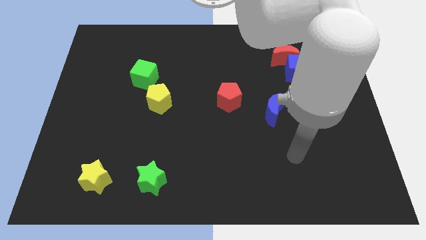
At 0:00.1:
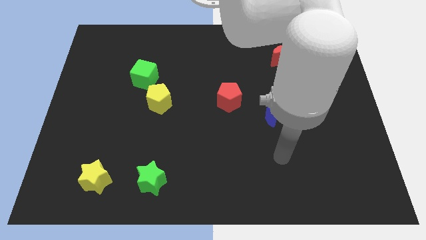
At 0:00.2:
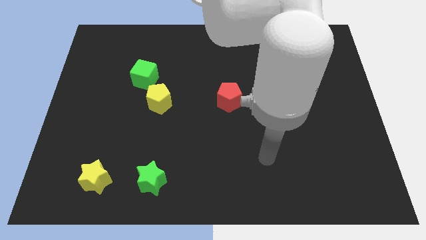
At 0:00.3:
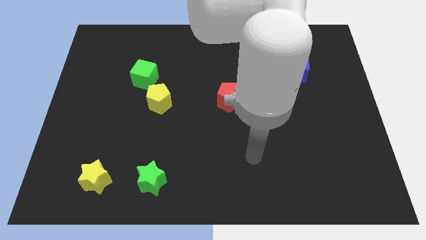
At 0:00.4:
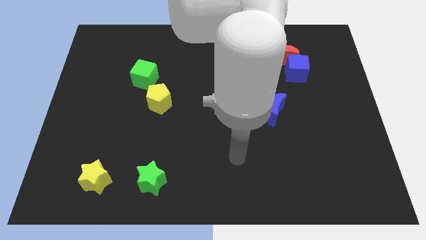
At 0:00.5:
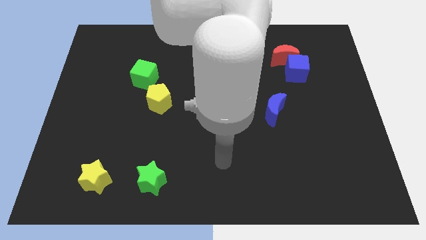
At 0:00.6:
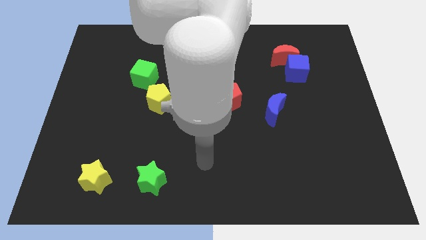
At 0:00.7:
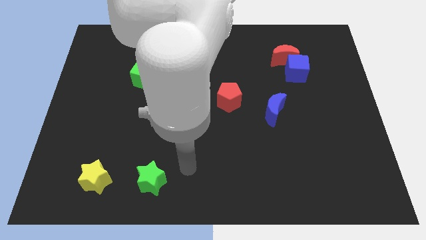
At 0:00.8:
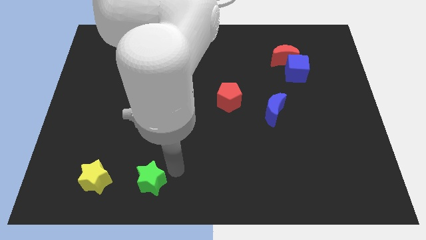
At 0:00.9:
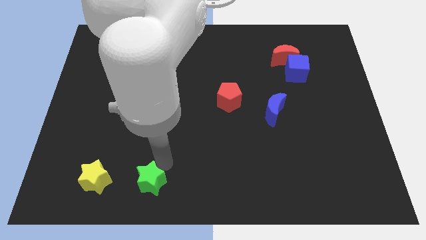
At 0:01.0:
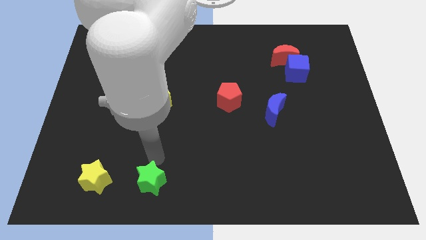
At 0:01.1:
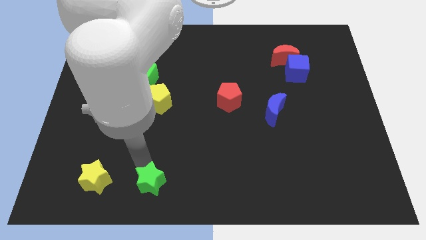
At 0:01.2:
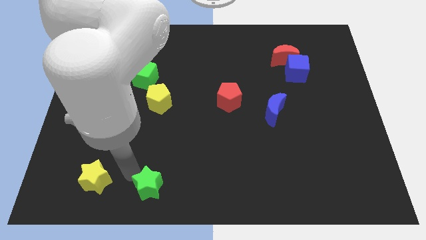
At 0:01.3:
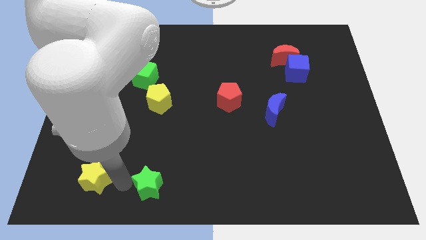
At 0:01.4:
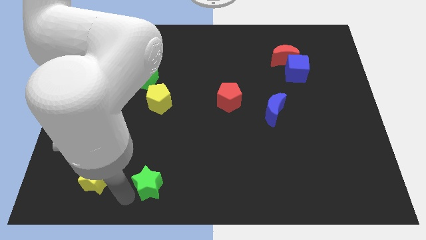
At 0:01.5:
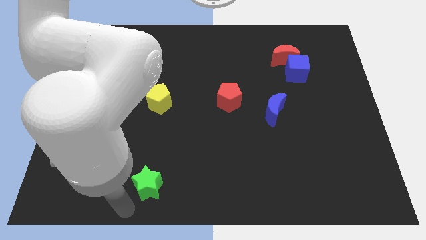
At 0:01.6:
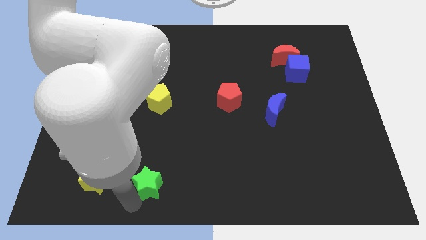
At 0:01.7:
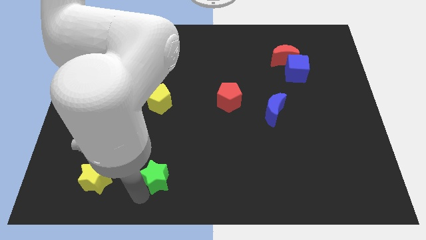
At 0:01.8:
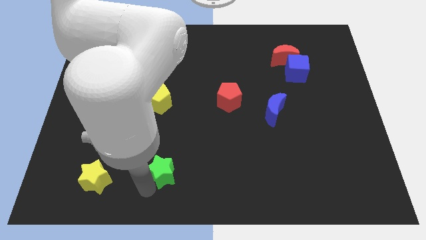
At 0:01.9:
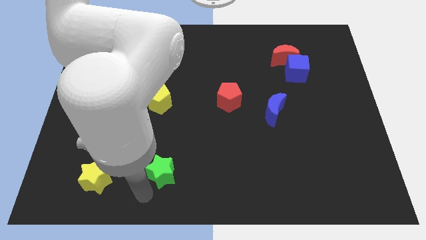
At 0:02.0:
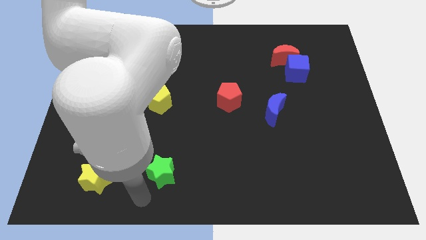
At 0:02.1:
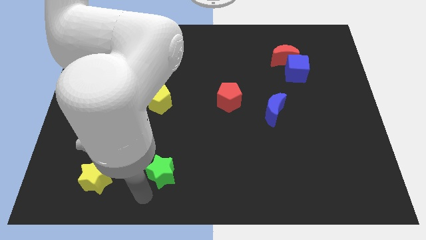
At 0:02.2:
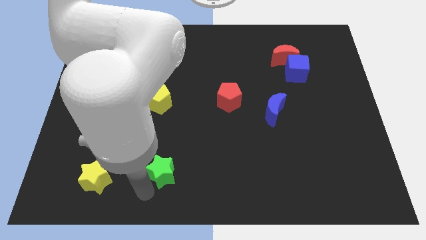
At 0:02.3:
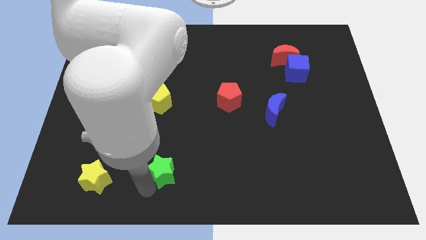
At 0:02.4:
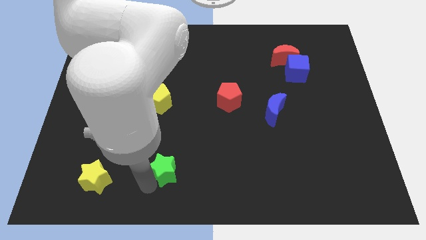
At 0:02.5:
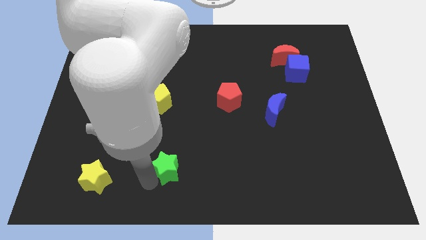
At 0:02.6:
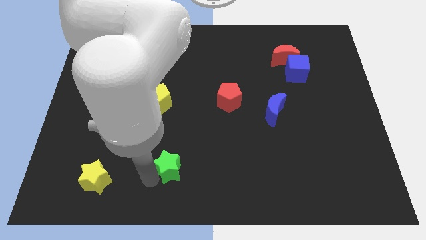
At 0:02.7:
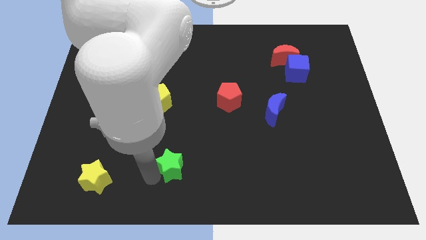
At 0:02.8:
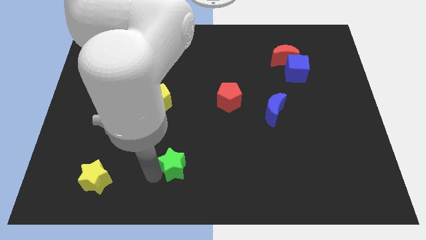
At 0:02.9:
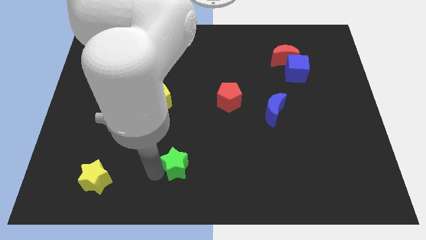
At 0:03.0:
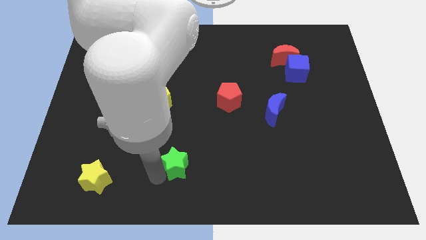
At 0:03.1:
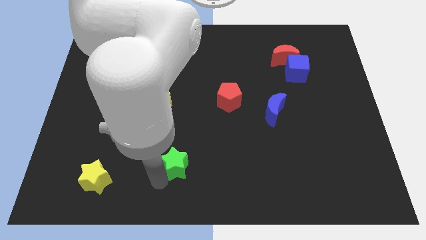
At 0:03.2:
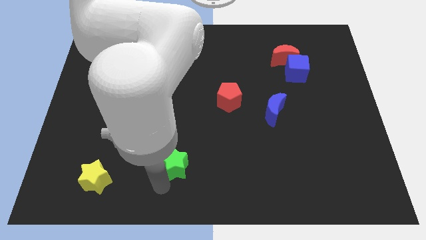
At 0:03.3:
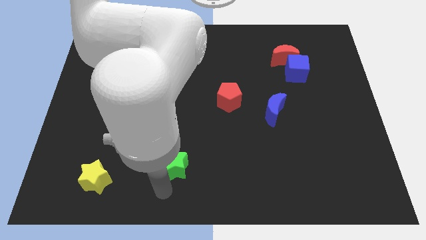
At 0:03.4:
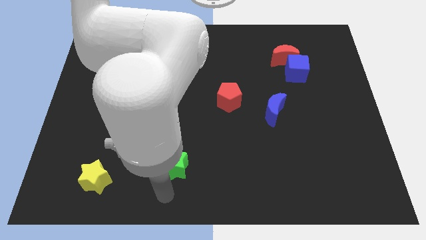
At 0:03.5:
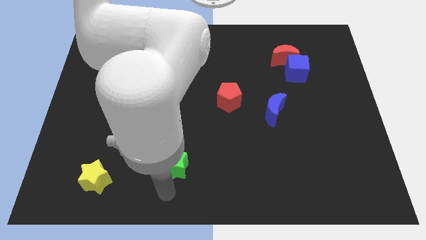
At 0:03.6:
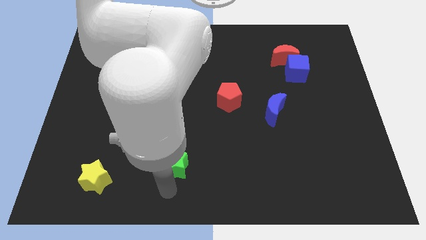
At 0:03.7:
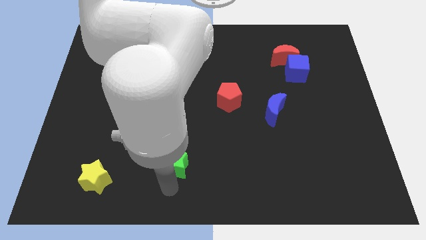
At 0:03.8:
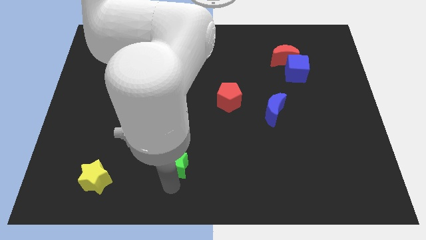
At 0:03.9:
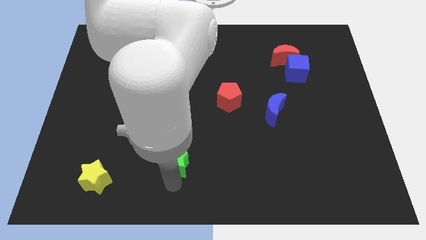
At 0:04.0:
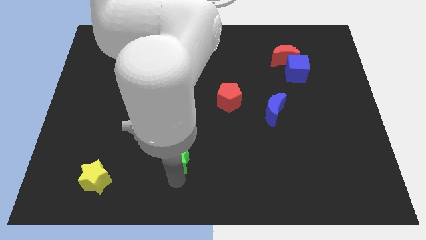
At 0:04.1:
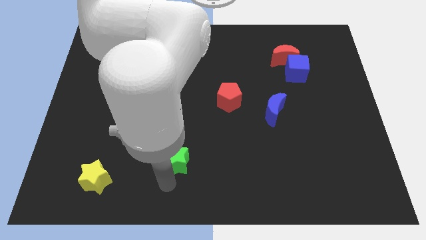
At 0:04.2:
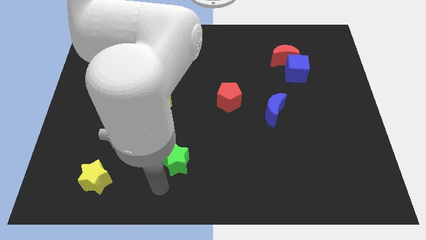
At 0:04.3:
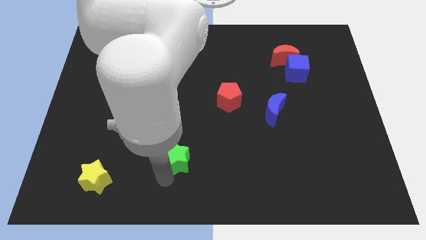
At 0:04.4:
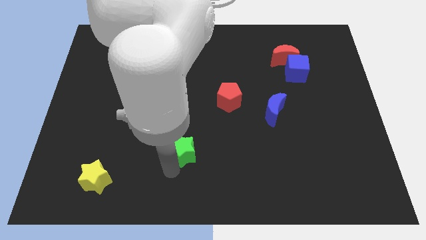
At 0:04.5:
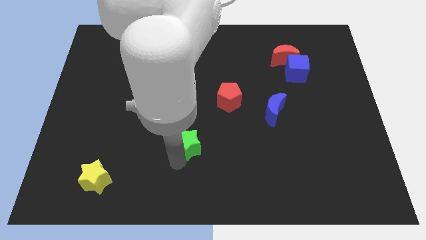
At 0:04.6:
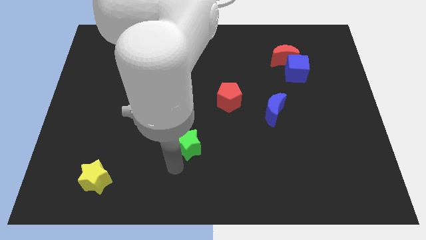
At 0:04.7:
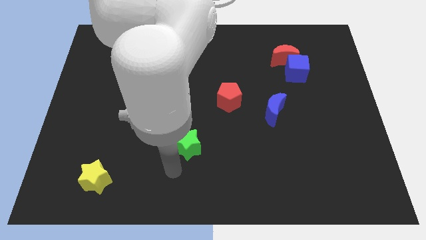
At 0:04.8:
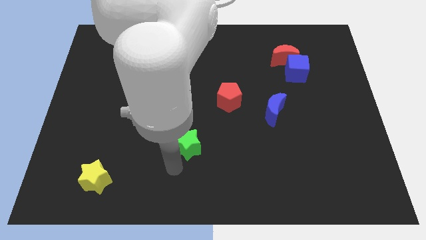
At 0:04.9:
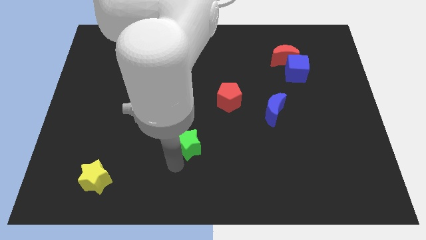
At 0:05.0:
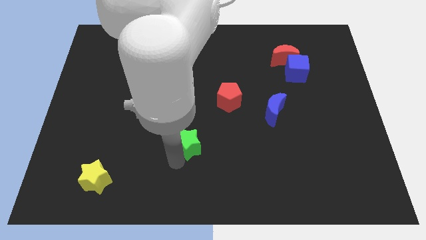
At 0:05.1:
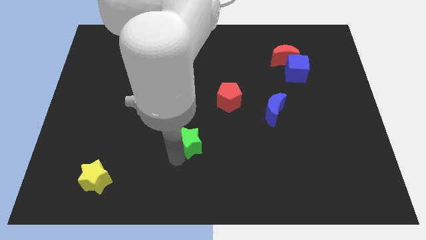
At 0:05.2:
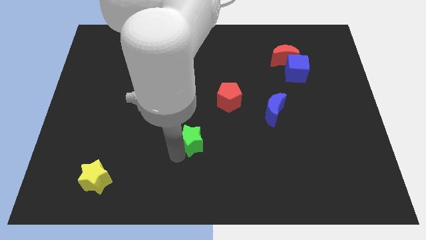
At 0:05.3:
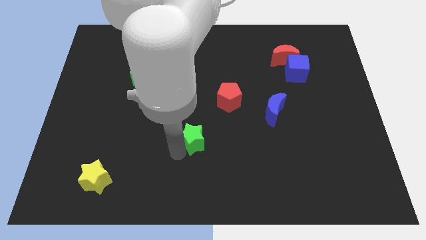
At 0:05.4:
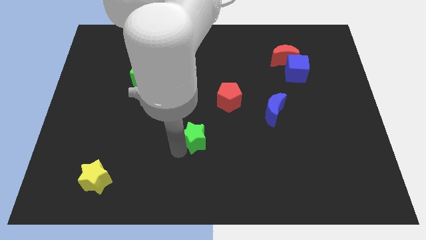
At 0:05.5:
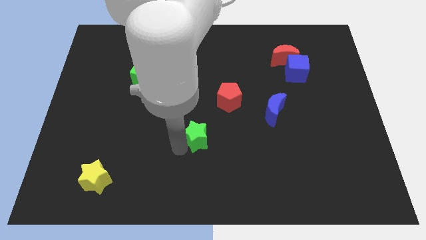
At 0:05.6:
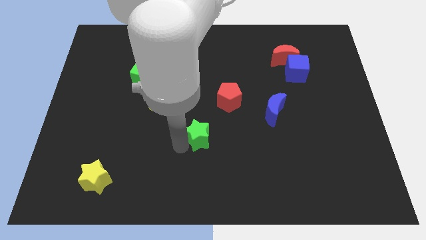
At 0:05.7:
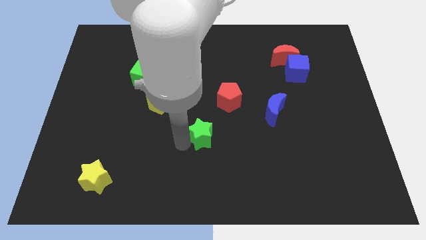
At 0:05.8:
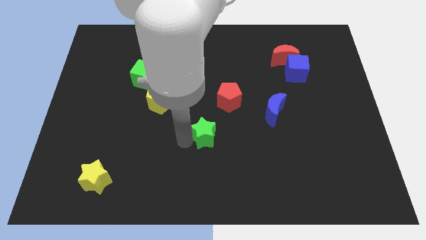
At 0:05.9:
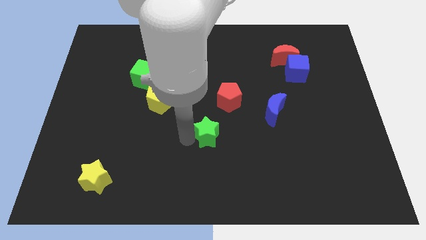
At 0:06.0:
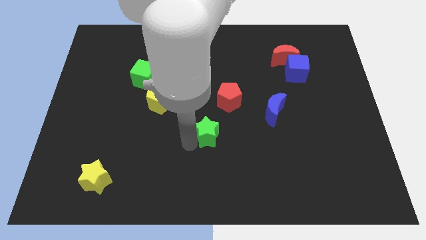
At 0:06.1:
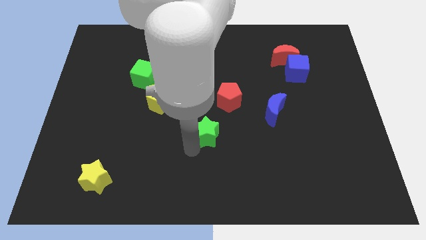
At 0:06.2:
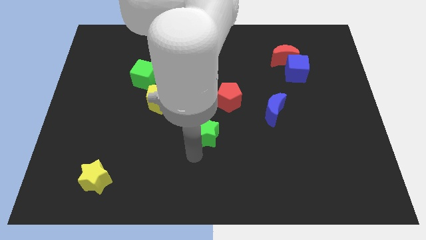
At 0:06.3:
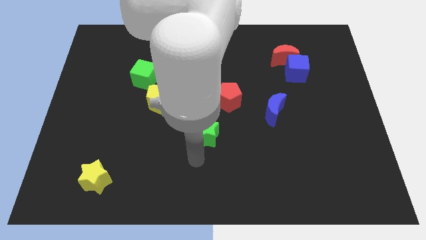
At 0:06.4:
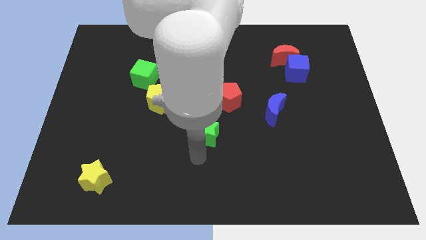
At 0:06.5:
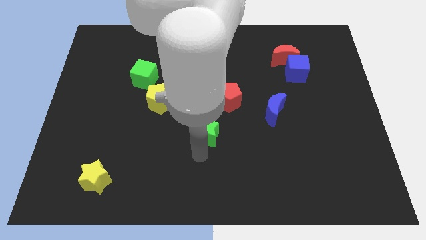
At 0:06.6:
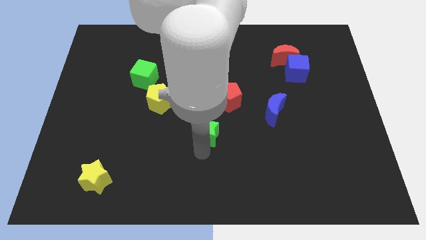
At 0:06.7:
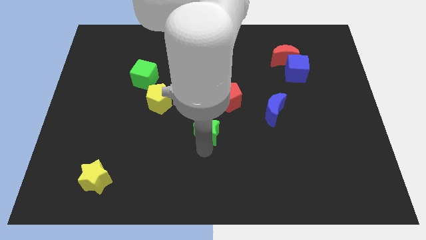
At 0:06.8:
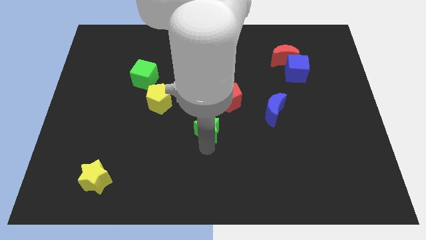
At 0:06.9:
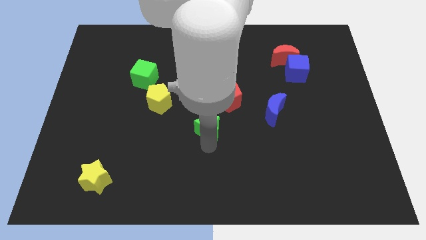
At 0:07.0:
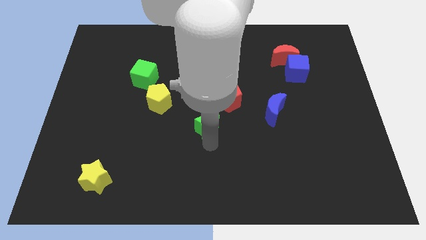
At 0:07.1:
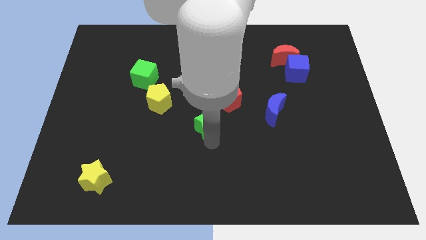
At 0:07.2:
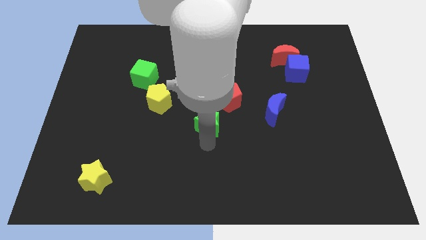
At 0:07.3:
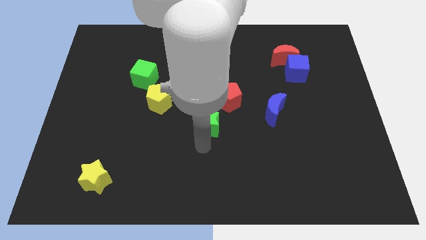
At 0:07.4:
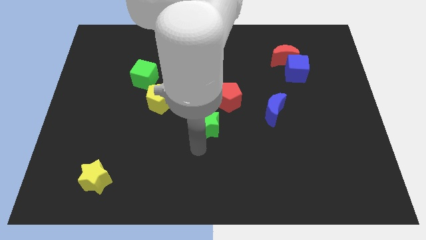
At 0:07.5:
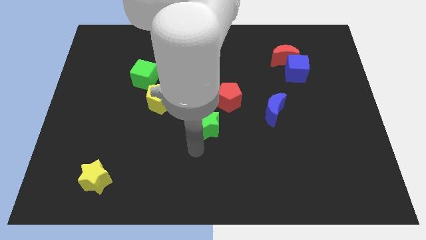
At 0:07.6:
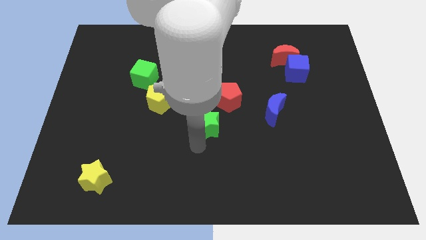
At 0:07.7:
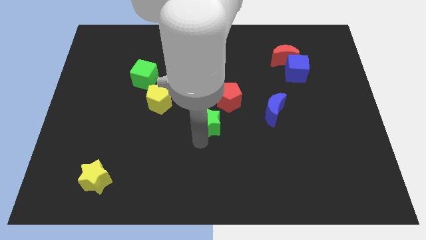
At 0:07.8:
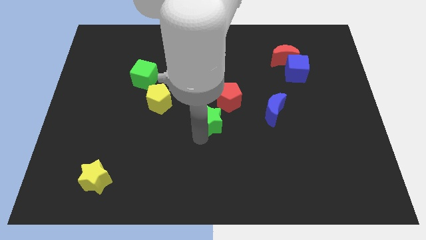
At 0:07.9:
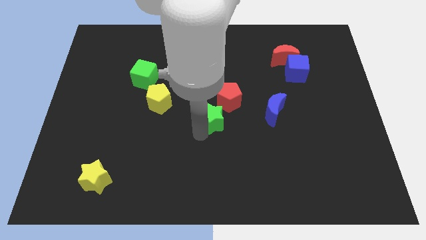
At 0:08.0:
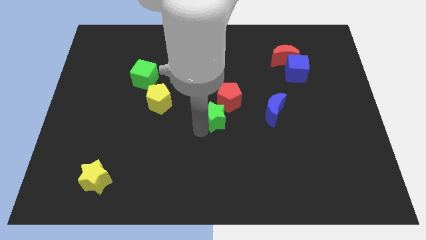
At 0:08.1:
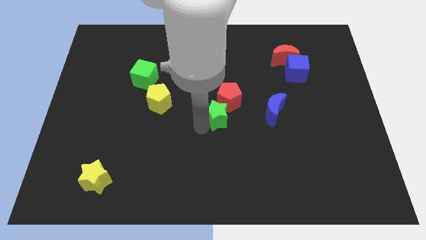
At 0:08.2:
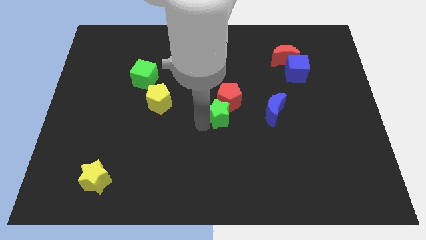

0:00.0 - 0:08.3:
push the green star close to the red pentagon
